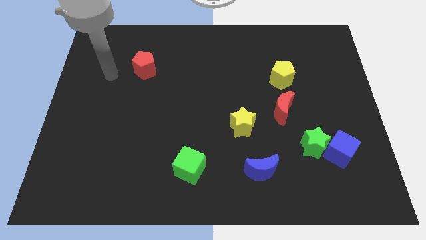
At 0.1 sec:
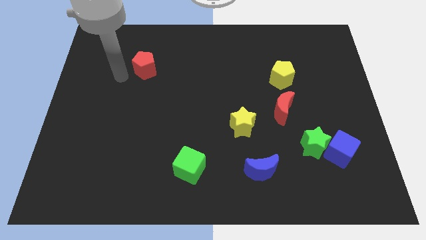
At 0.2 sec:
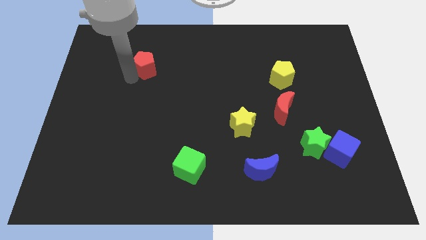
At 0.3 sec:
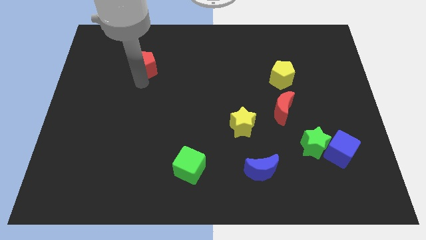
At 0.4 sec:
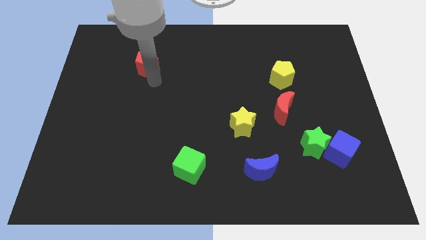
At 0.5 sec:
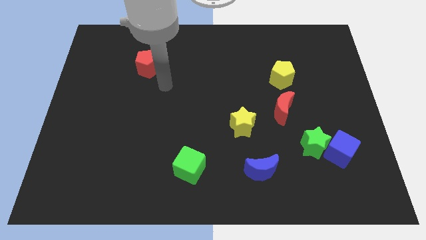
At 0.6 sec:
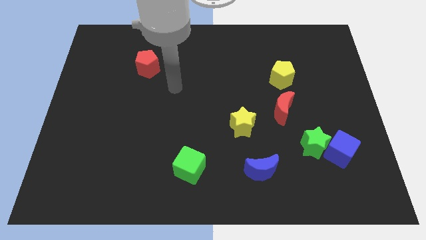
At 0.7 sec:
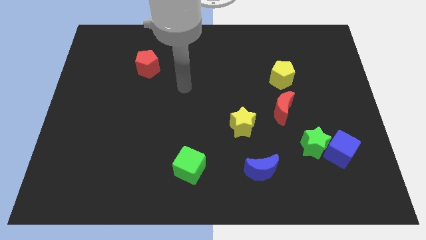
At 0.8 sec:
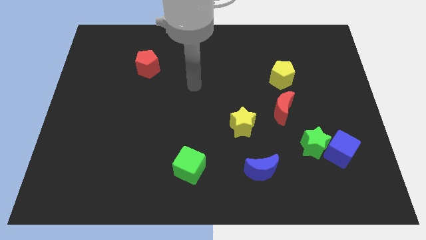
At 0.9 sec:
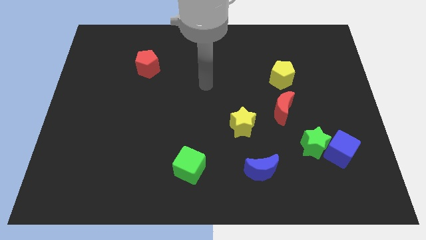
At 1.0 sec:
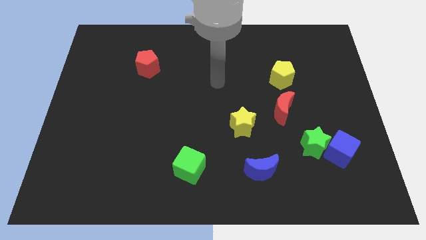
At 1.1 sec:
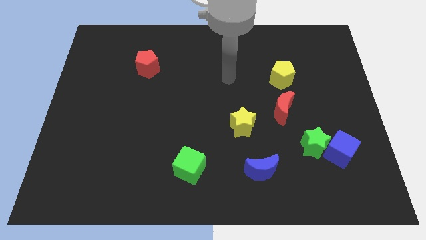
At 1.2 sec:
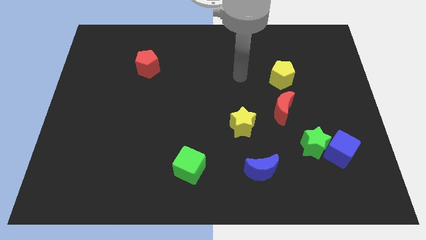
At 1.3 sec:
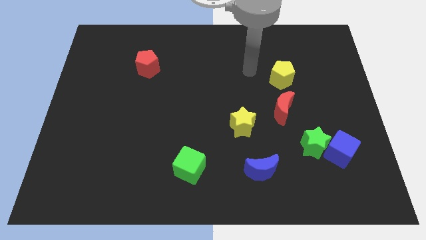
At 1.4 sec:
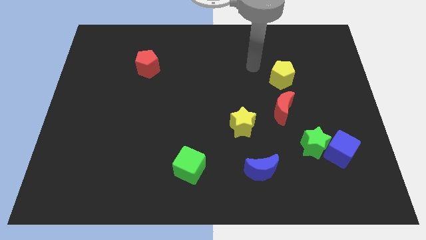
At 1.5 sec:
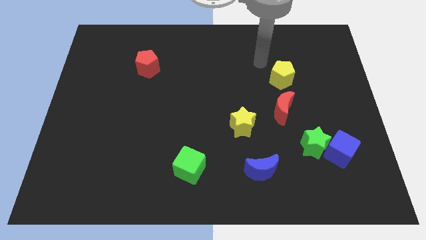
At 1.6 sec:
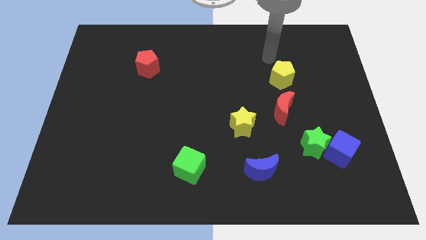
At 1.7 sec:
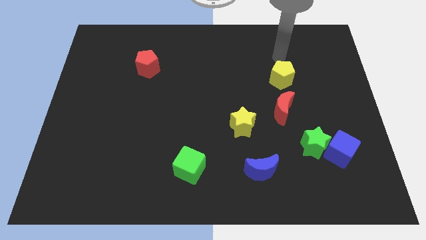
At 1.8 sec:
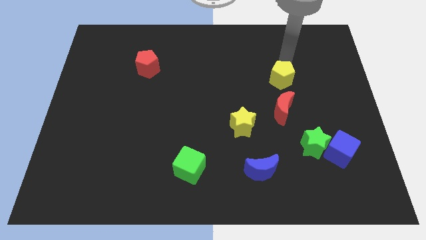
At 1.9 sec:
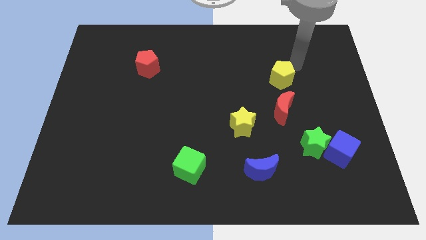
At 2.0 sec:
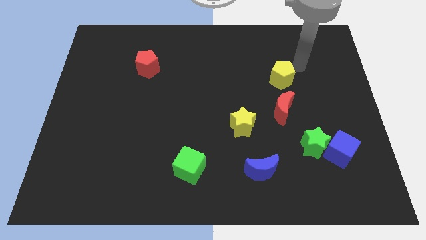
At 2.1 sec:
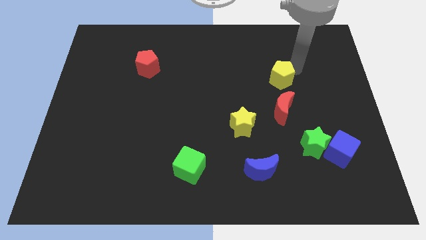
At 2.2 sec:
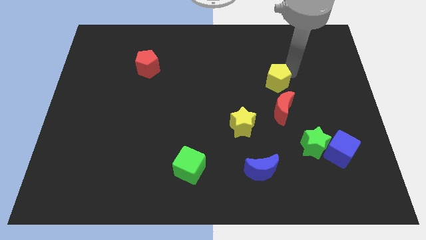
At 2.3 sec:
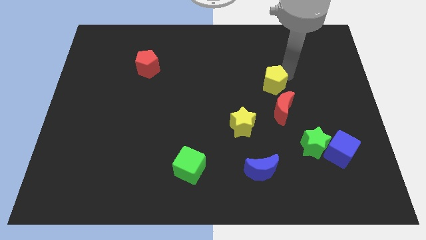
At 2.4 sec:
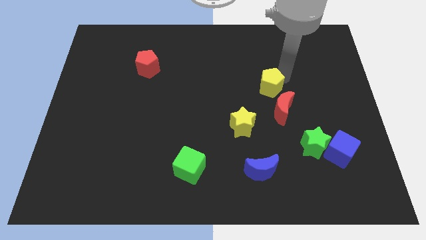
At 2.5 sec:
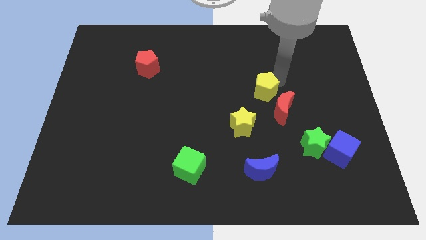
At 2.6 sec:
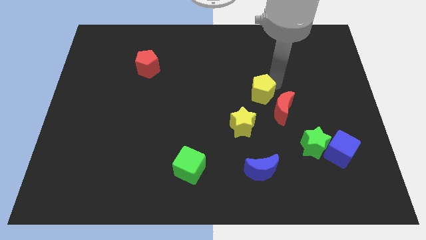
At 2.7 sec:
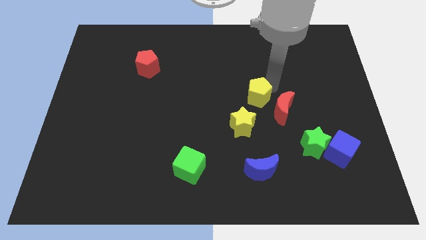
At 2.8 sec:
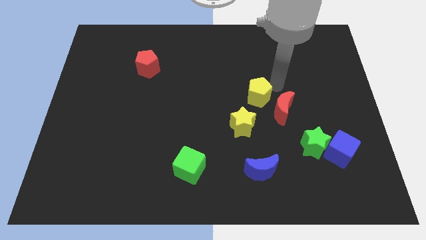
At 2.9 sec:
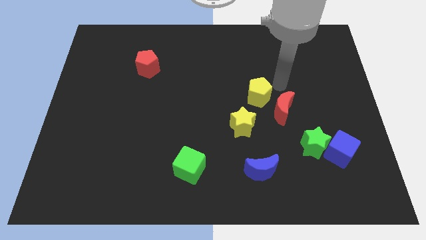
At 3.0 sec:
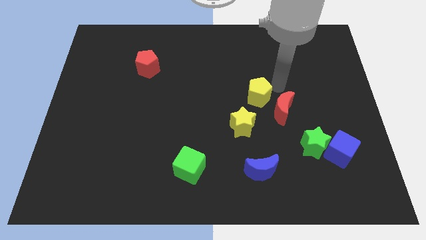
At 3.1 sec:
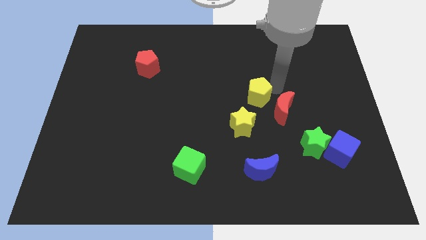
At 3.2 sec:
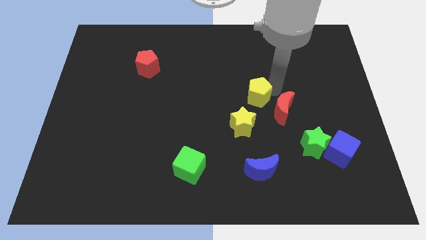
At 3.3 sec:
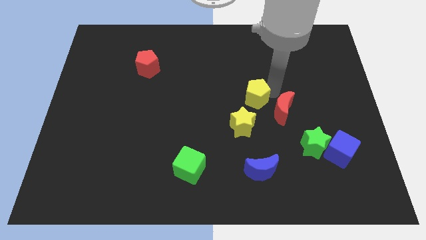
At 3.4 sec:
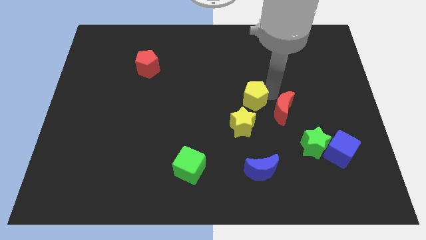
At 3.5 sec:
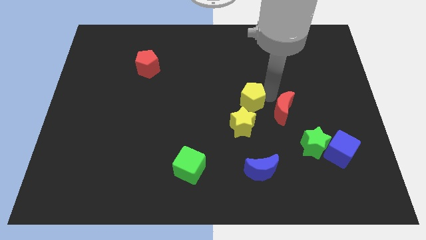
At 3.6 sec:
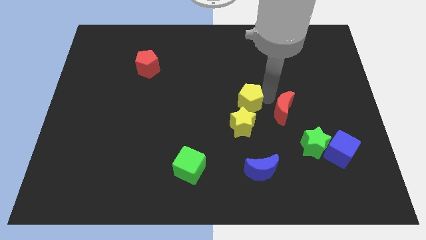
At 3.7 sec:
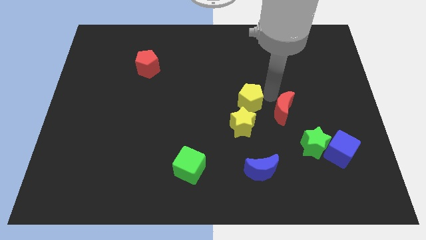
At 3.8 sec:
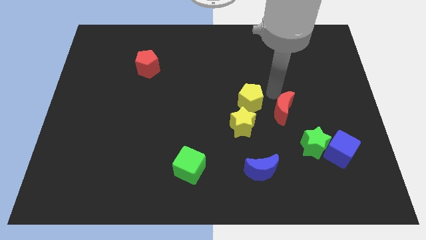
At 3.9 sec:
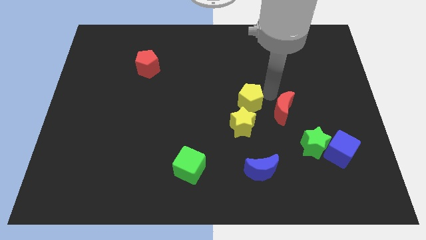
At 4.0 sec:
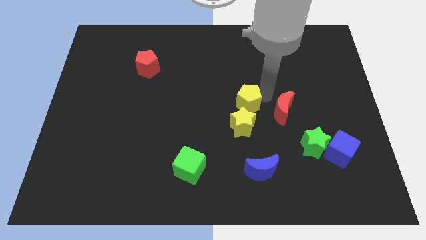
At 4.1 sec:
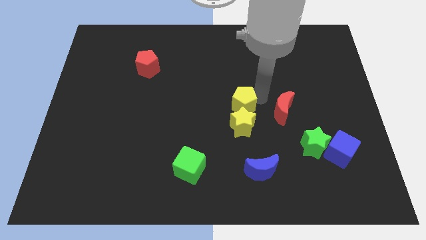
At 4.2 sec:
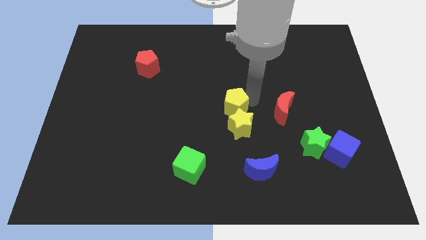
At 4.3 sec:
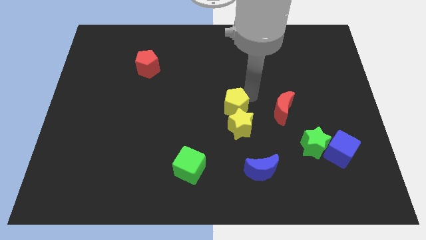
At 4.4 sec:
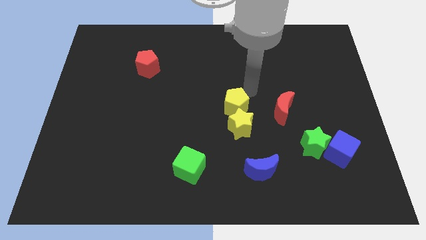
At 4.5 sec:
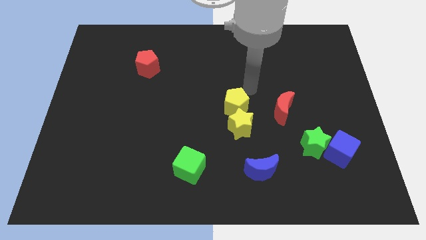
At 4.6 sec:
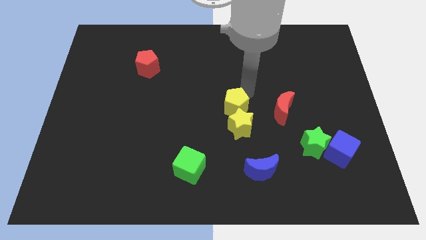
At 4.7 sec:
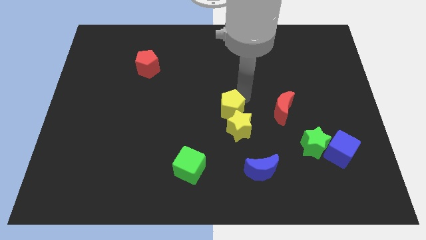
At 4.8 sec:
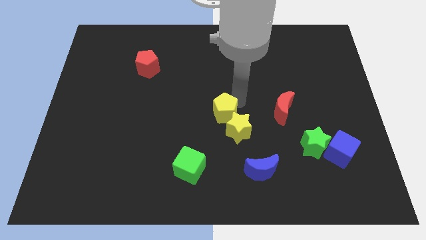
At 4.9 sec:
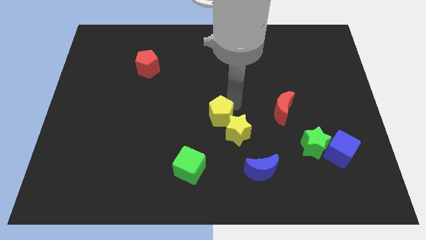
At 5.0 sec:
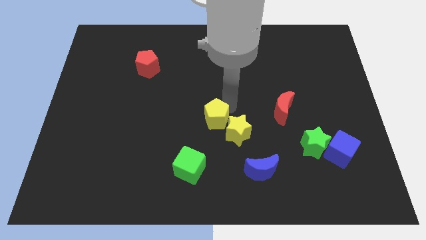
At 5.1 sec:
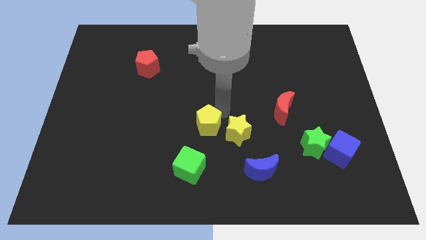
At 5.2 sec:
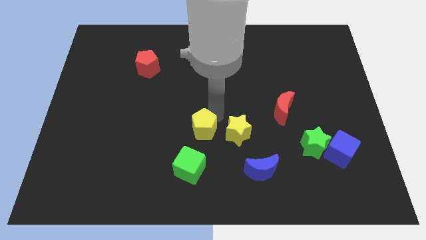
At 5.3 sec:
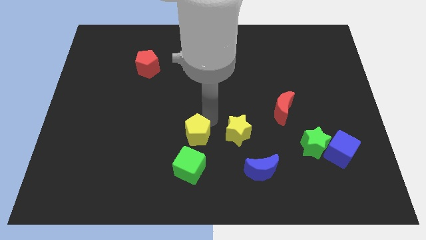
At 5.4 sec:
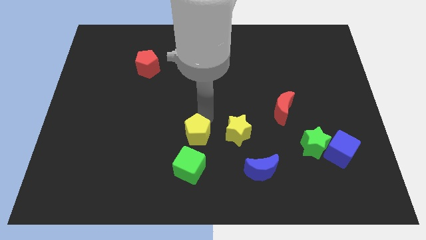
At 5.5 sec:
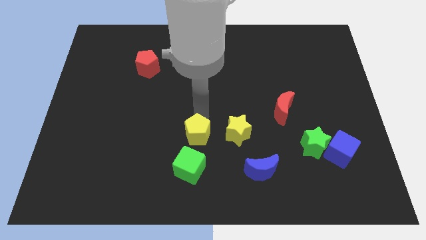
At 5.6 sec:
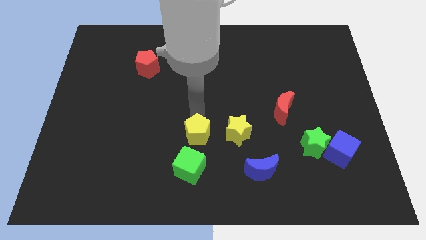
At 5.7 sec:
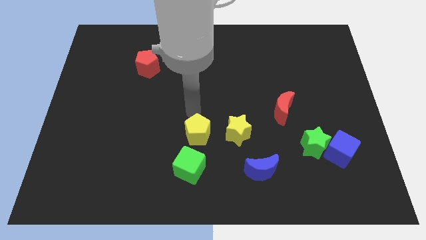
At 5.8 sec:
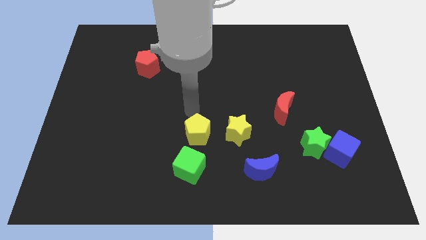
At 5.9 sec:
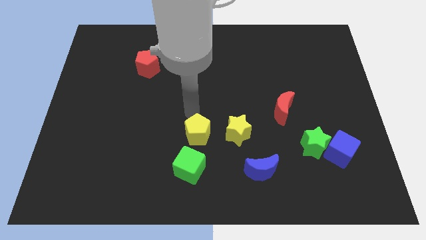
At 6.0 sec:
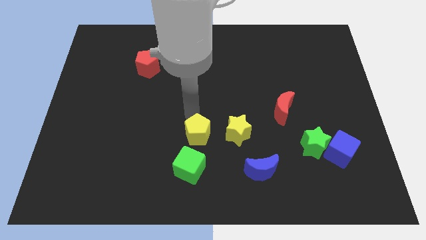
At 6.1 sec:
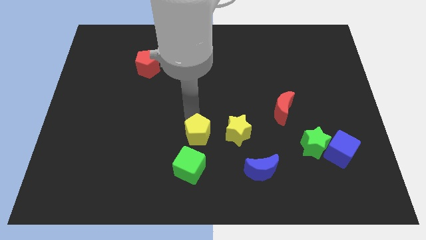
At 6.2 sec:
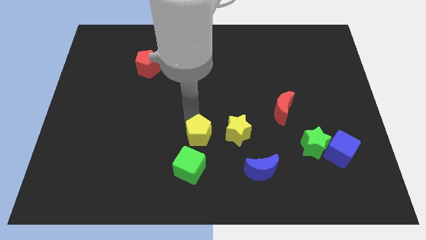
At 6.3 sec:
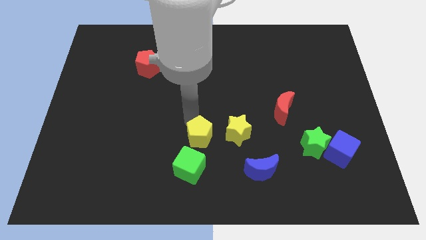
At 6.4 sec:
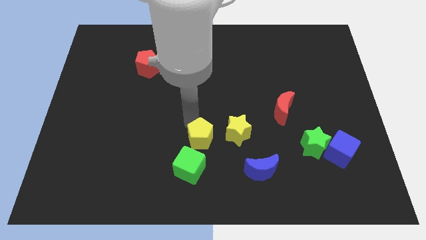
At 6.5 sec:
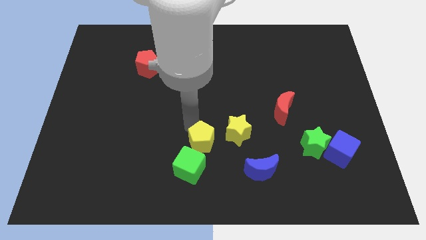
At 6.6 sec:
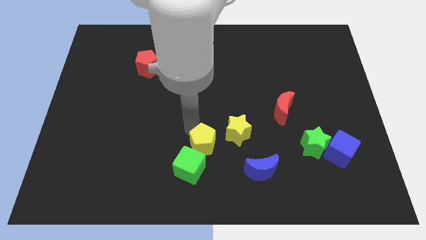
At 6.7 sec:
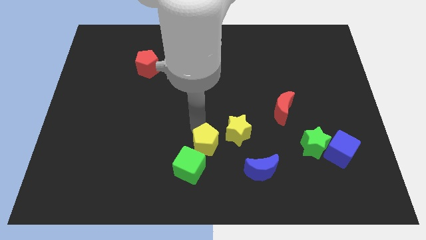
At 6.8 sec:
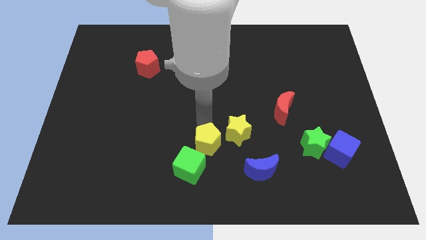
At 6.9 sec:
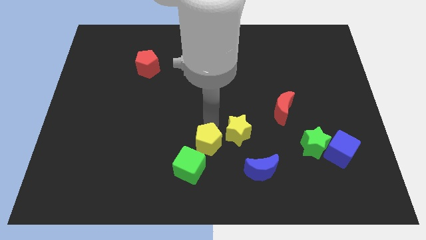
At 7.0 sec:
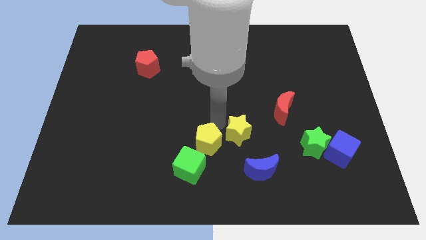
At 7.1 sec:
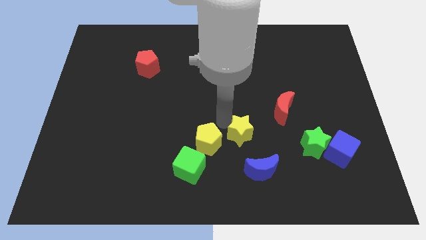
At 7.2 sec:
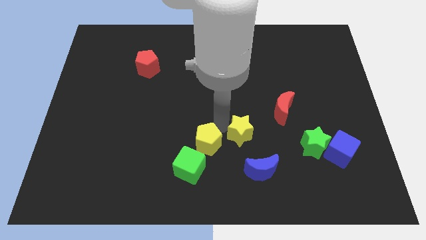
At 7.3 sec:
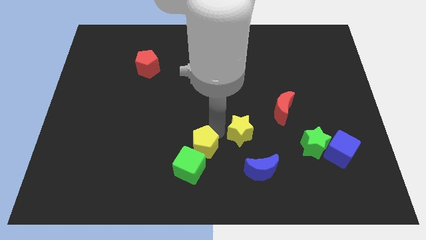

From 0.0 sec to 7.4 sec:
put the yellow pentagon next to the green cube
